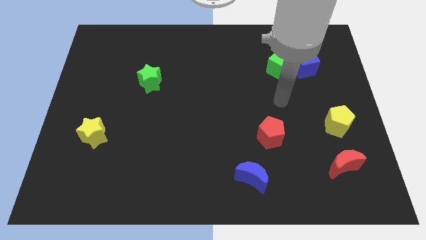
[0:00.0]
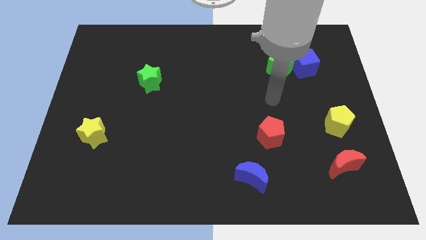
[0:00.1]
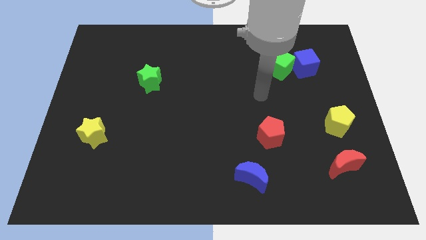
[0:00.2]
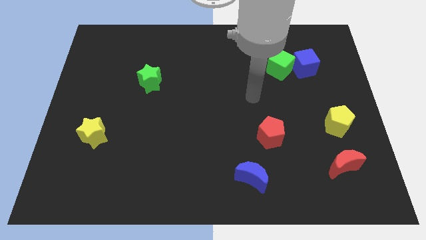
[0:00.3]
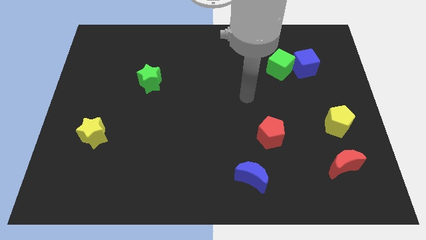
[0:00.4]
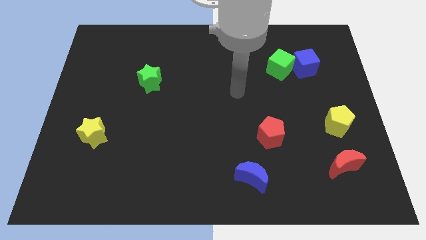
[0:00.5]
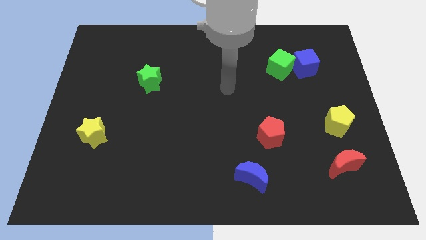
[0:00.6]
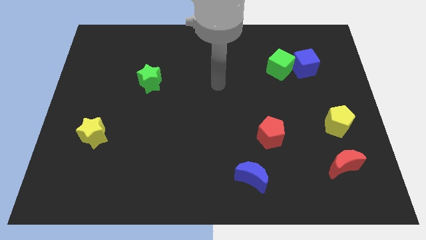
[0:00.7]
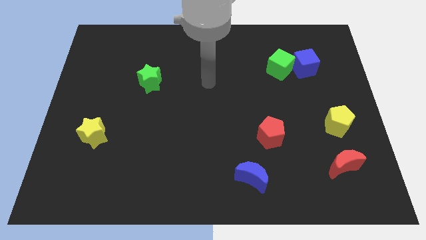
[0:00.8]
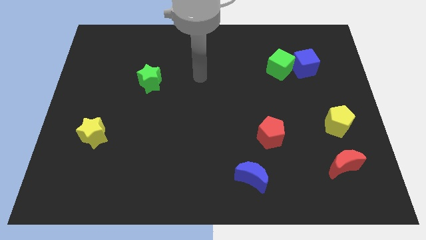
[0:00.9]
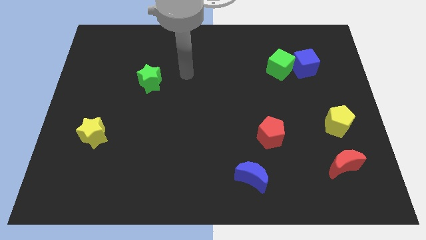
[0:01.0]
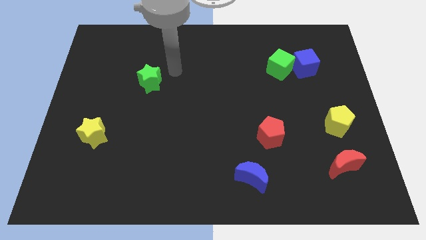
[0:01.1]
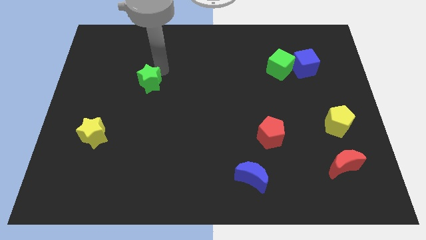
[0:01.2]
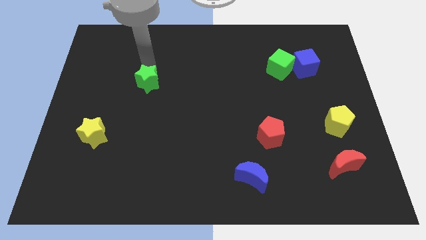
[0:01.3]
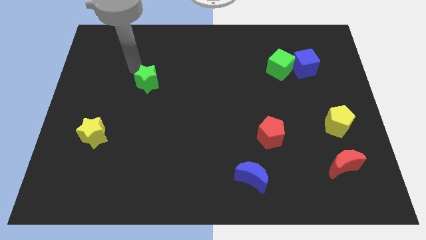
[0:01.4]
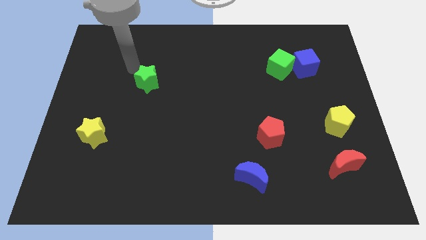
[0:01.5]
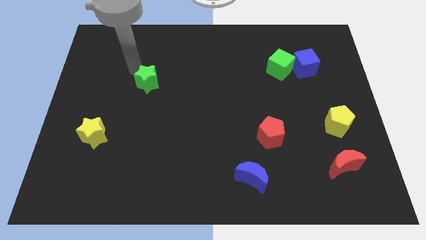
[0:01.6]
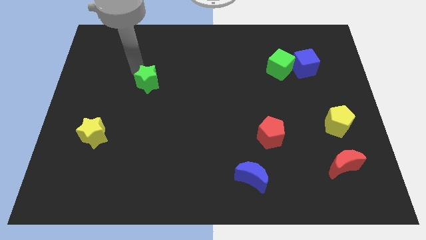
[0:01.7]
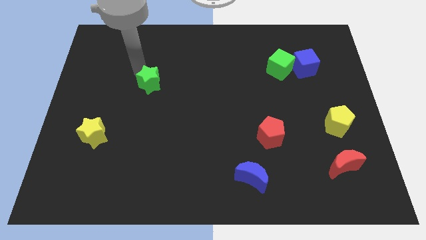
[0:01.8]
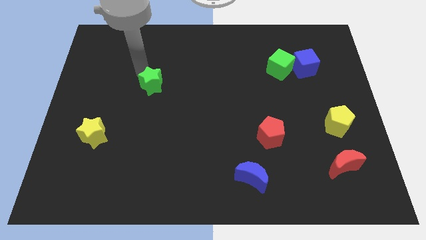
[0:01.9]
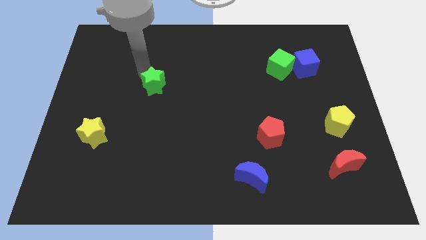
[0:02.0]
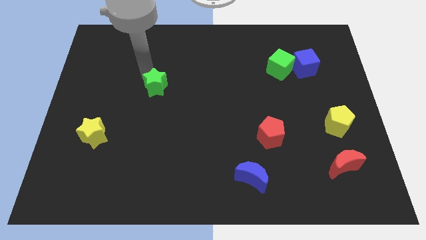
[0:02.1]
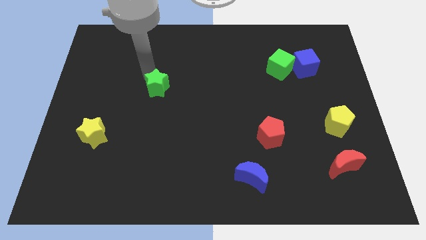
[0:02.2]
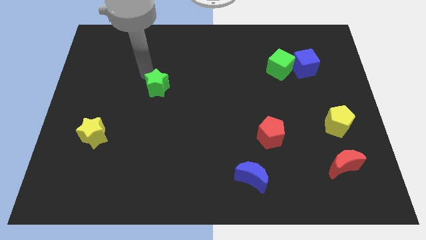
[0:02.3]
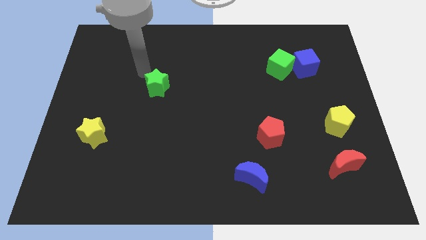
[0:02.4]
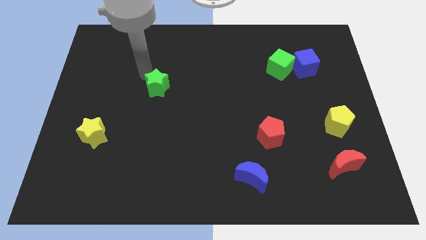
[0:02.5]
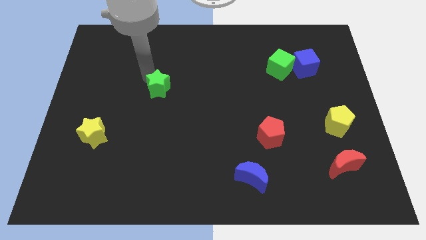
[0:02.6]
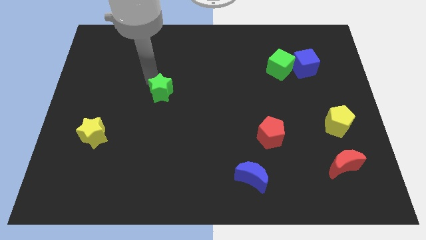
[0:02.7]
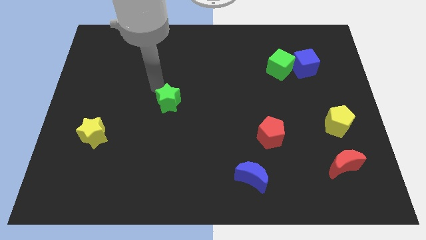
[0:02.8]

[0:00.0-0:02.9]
move the green star a bit diagonally downwards and right

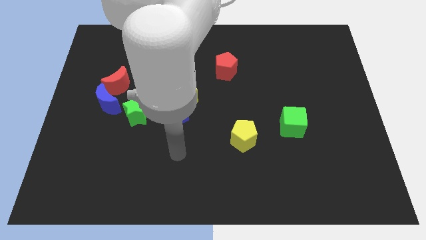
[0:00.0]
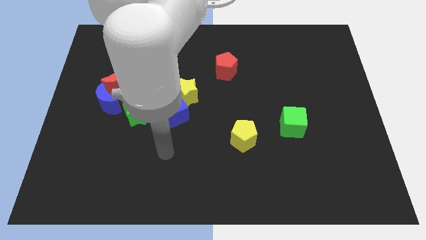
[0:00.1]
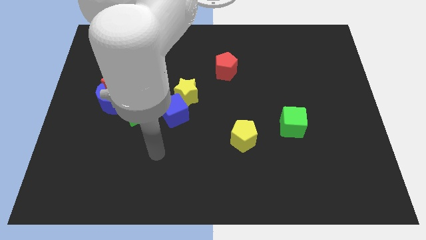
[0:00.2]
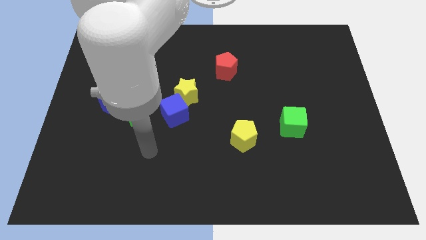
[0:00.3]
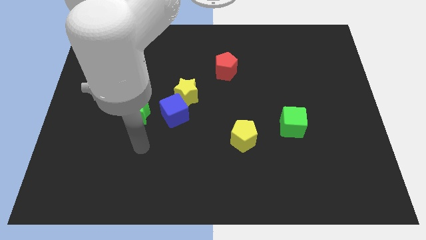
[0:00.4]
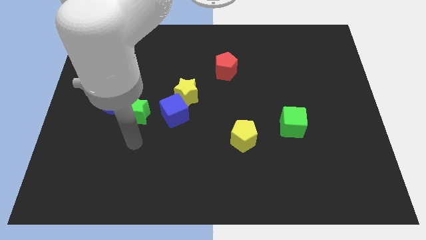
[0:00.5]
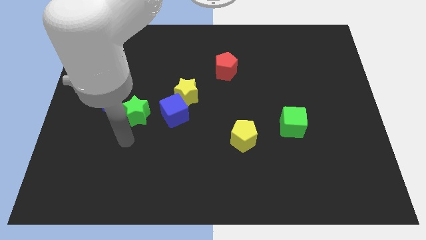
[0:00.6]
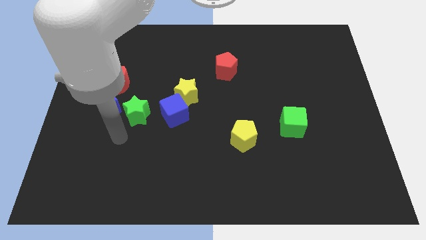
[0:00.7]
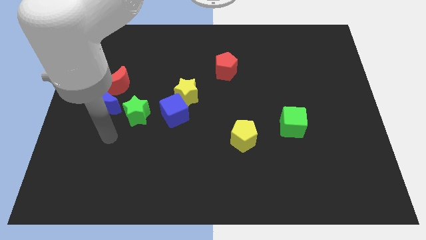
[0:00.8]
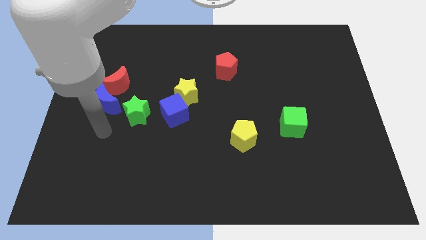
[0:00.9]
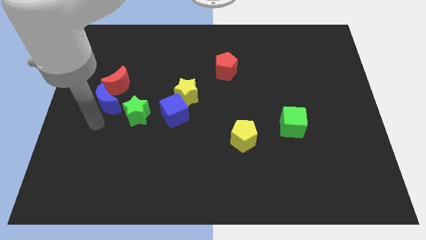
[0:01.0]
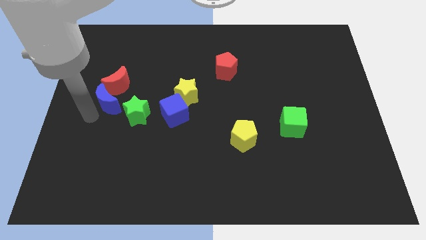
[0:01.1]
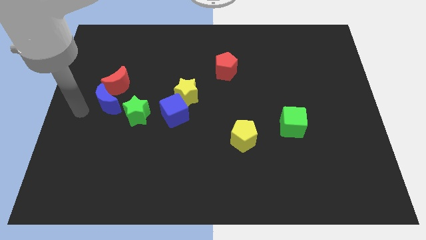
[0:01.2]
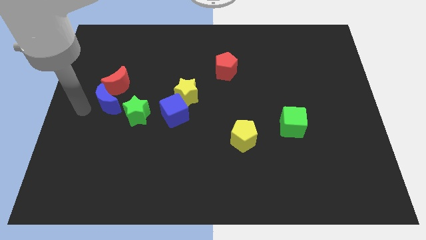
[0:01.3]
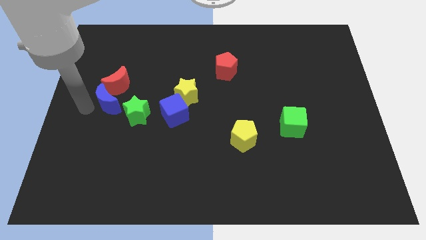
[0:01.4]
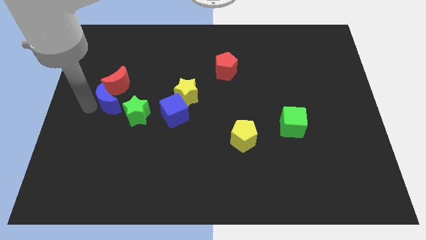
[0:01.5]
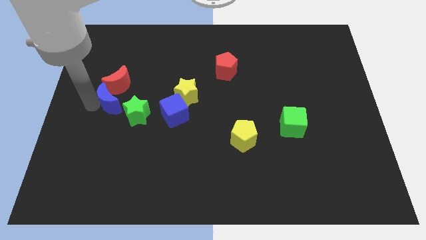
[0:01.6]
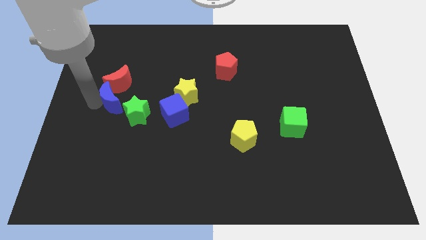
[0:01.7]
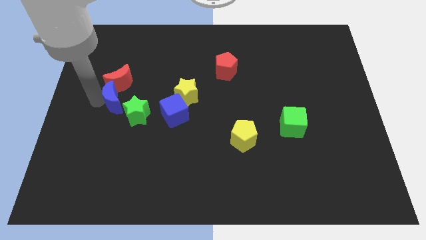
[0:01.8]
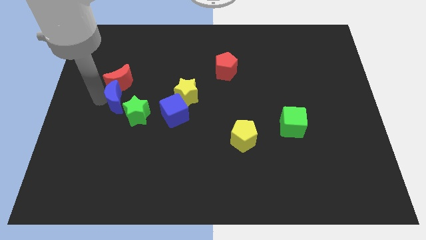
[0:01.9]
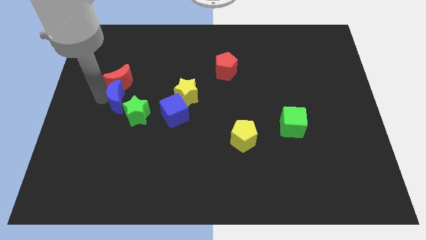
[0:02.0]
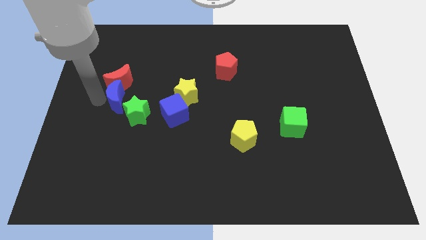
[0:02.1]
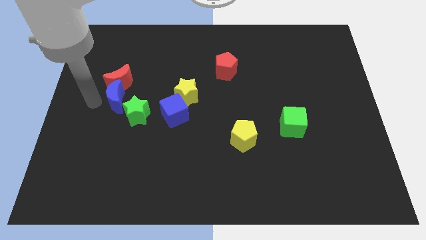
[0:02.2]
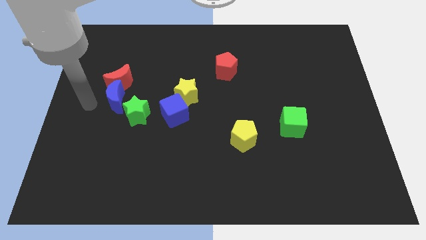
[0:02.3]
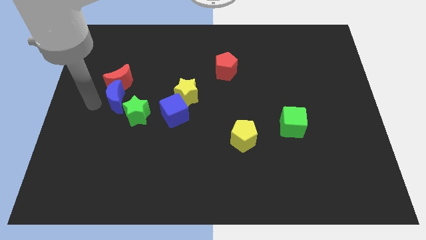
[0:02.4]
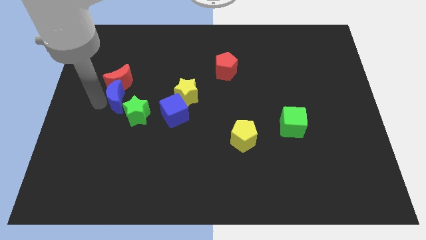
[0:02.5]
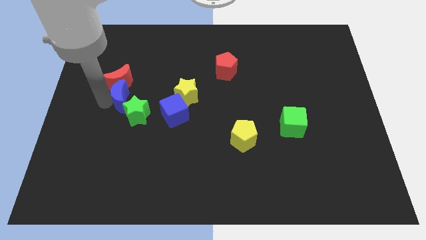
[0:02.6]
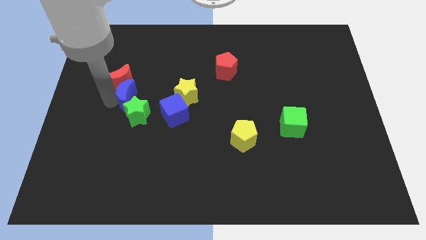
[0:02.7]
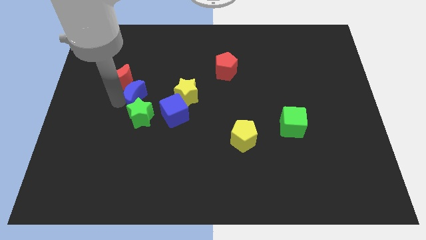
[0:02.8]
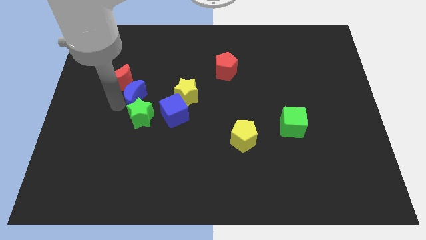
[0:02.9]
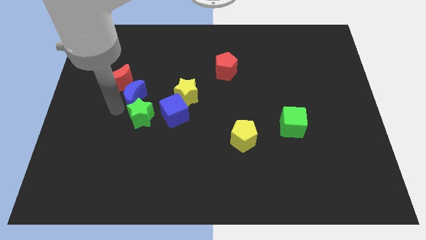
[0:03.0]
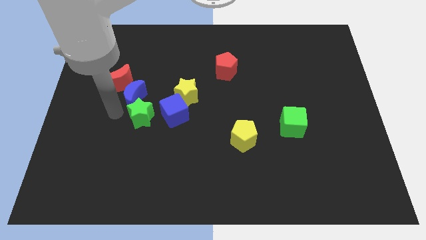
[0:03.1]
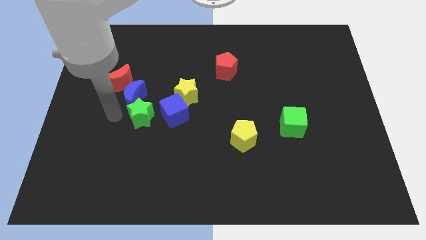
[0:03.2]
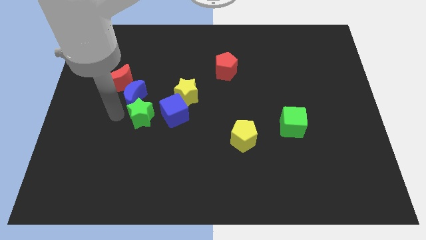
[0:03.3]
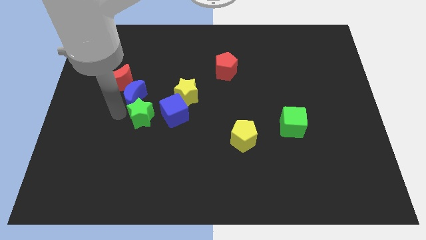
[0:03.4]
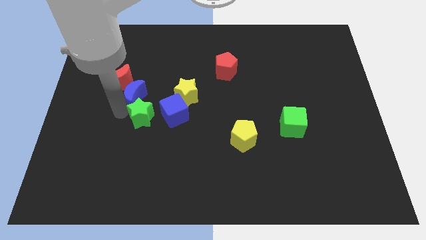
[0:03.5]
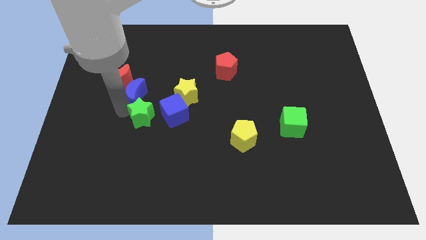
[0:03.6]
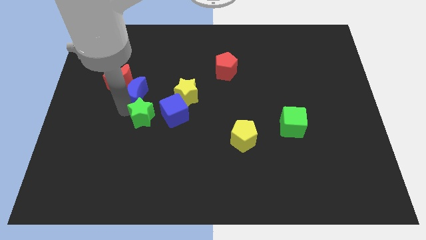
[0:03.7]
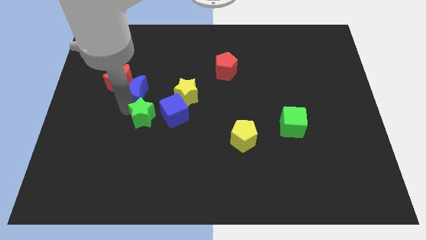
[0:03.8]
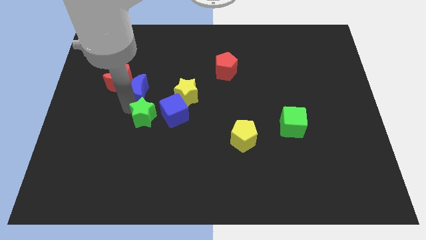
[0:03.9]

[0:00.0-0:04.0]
slightly move the blue moon up and to the right diagonally

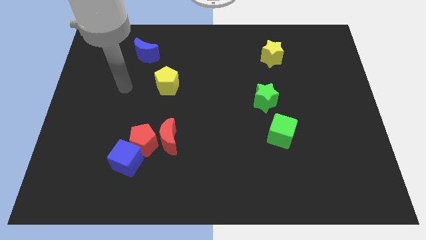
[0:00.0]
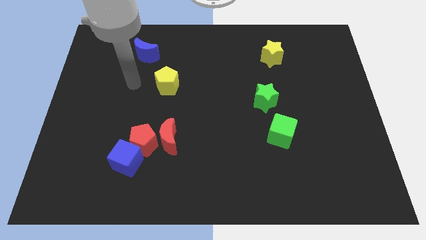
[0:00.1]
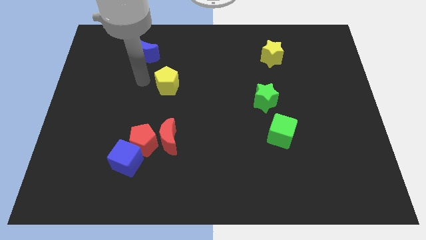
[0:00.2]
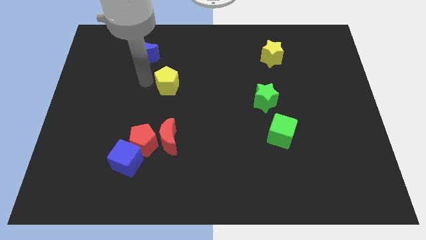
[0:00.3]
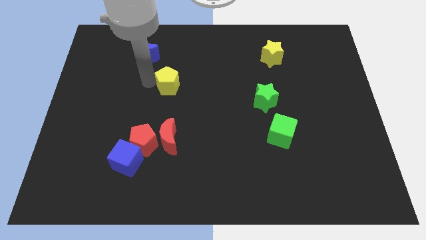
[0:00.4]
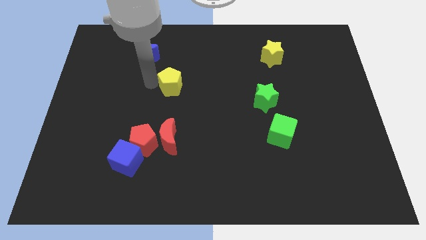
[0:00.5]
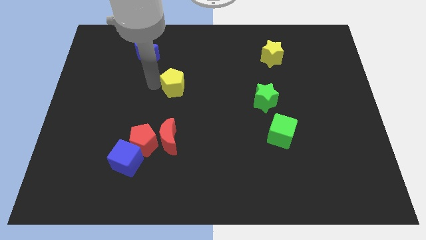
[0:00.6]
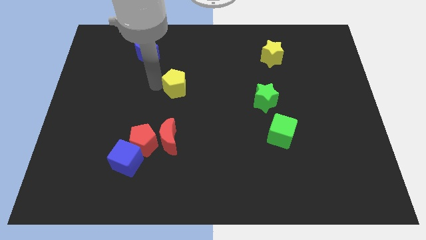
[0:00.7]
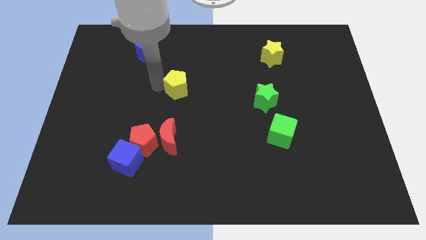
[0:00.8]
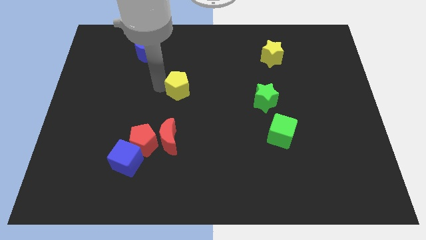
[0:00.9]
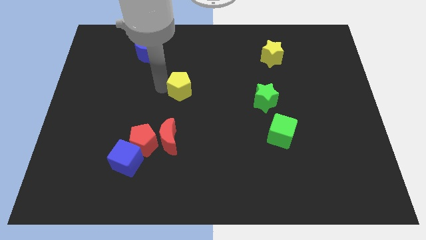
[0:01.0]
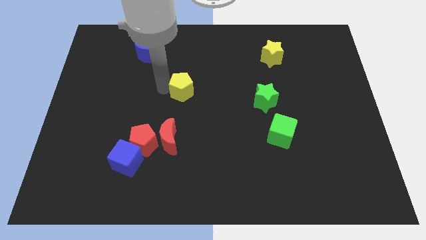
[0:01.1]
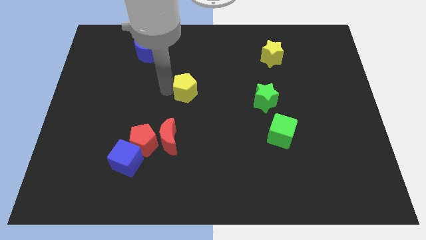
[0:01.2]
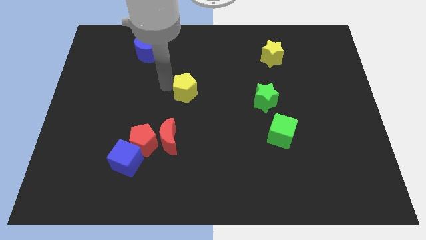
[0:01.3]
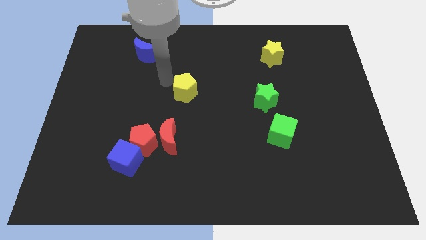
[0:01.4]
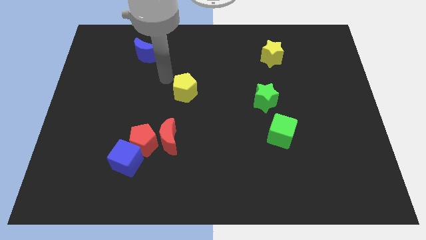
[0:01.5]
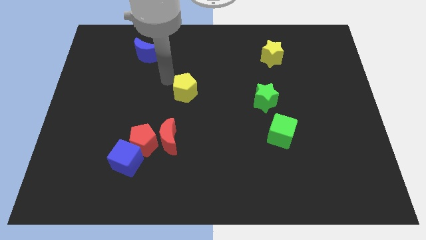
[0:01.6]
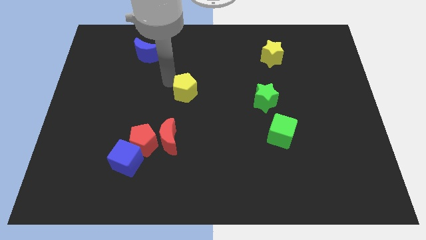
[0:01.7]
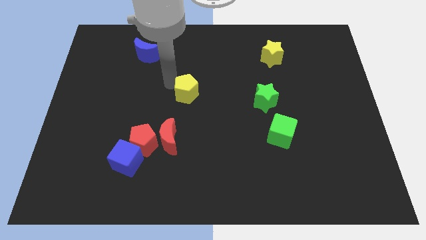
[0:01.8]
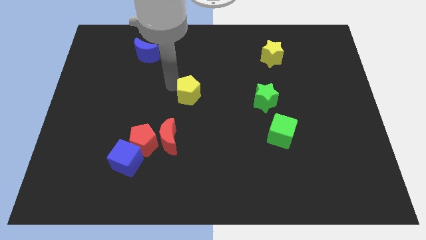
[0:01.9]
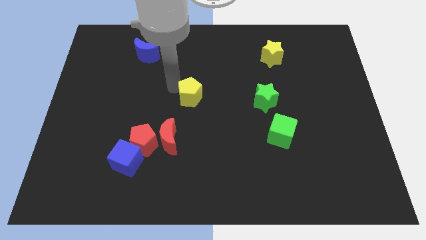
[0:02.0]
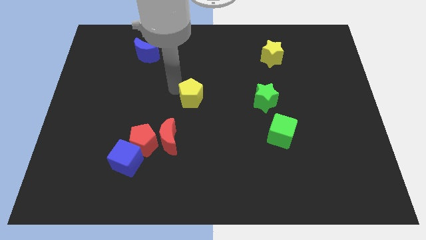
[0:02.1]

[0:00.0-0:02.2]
slide the yellow pentagon downwards and to the right slightly
